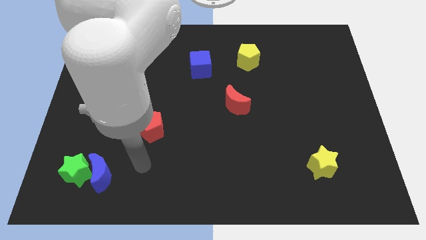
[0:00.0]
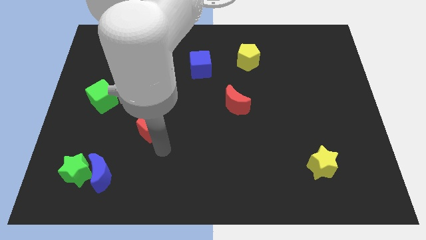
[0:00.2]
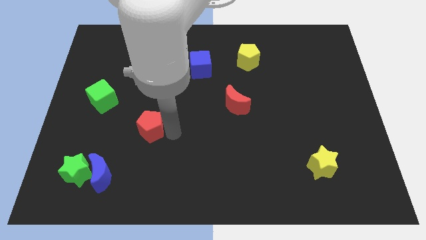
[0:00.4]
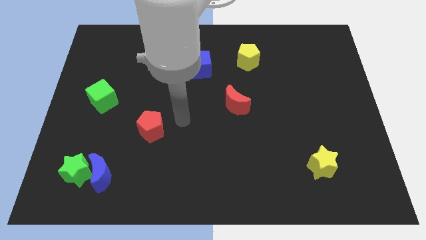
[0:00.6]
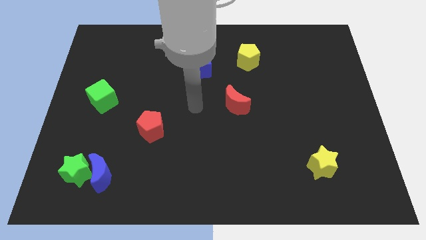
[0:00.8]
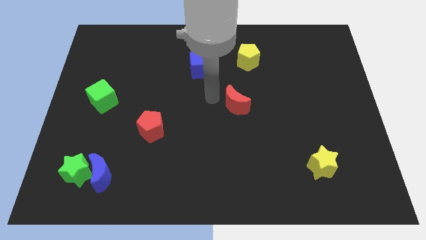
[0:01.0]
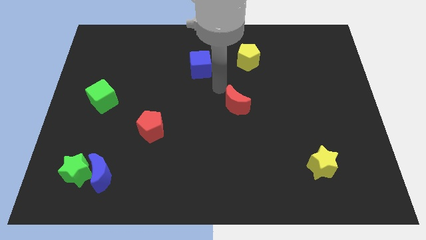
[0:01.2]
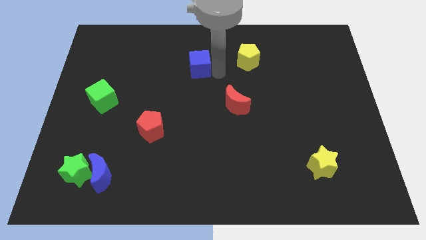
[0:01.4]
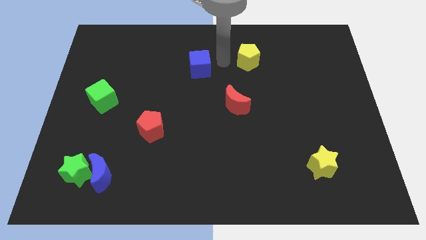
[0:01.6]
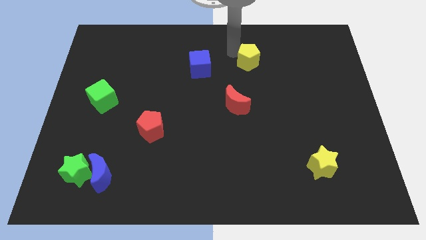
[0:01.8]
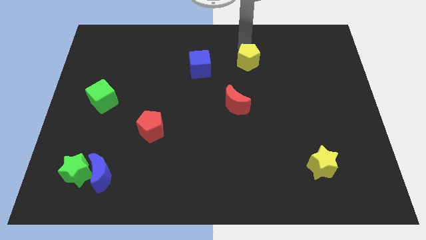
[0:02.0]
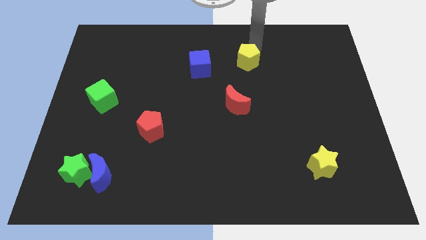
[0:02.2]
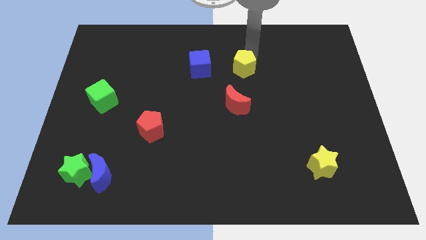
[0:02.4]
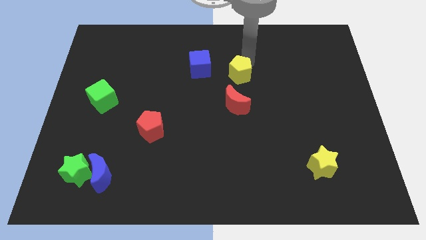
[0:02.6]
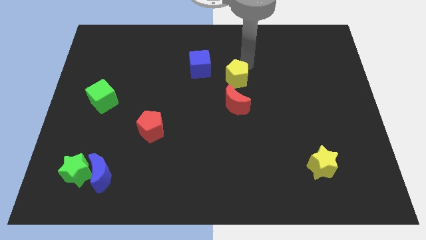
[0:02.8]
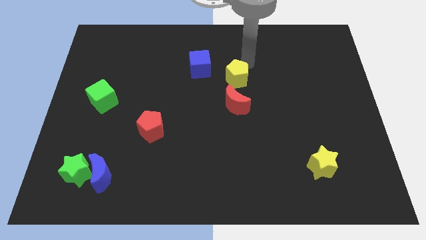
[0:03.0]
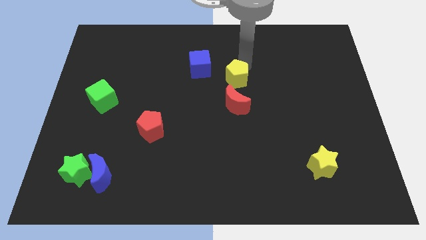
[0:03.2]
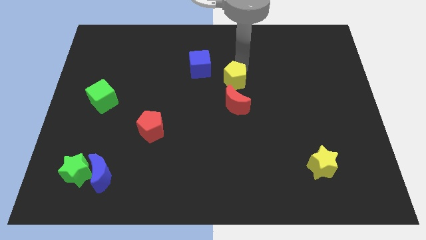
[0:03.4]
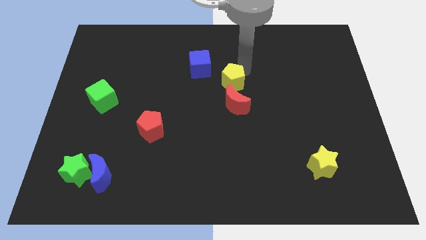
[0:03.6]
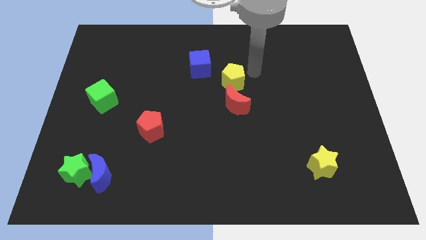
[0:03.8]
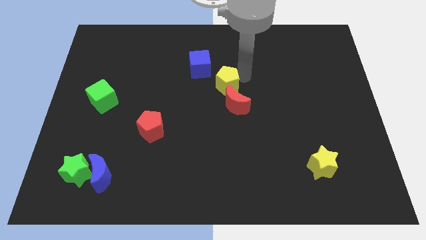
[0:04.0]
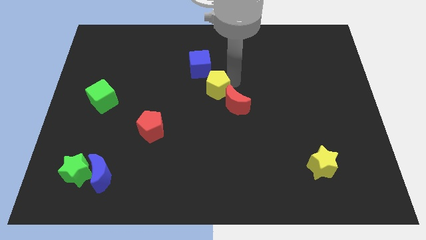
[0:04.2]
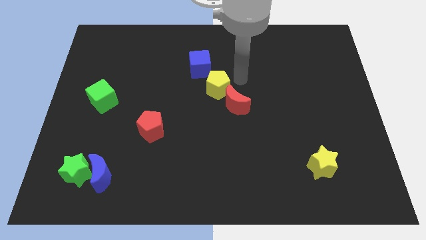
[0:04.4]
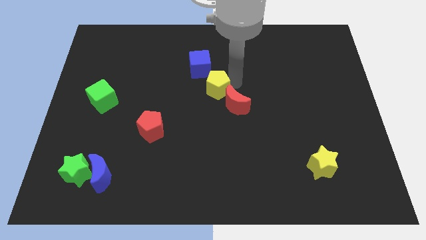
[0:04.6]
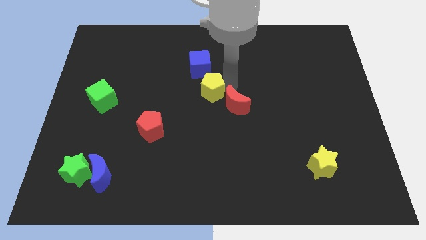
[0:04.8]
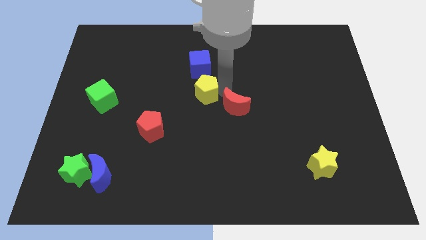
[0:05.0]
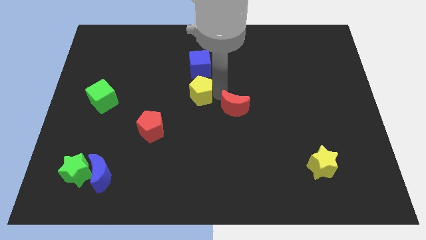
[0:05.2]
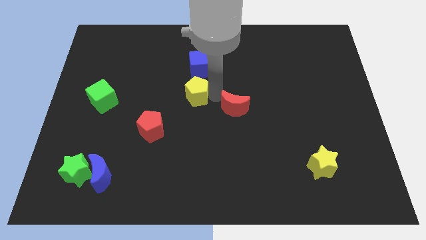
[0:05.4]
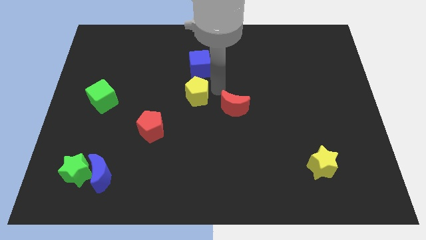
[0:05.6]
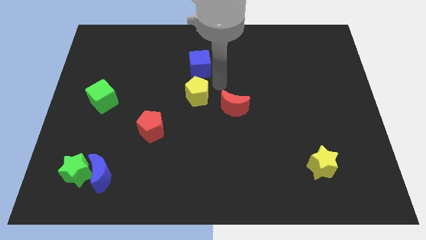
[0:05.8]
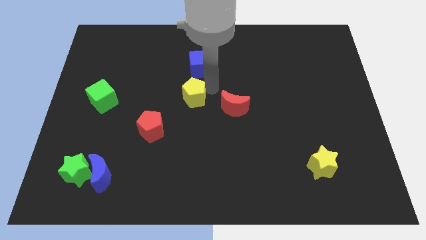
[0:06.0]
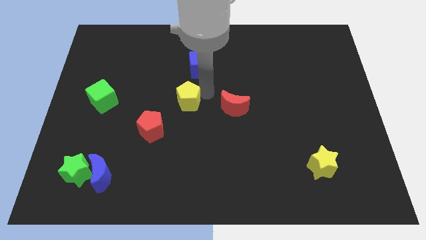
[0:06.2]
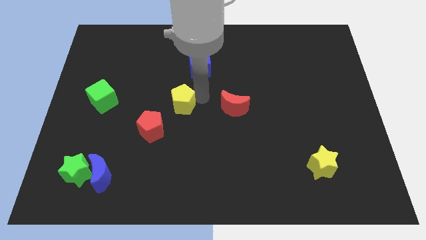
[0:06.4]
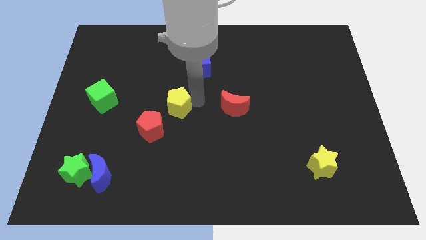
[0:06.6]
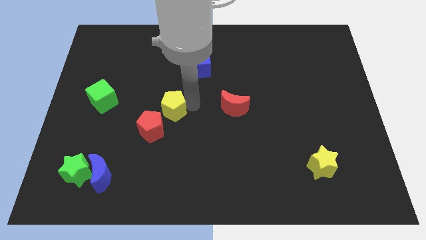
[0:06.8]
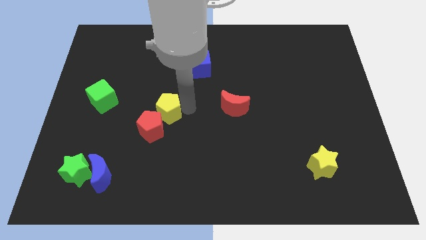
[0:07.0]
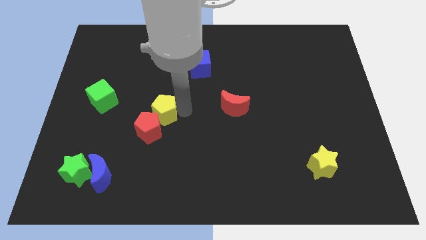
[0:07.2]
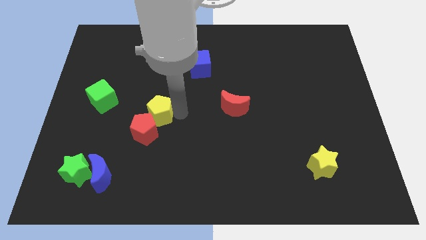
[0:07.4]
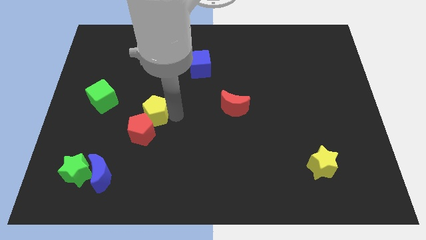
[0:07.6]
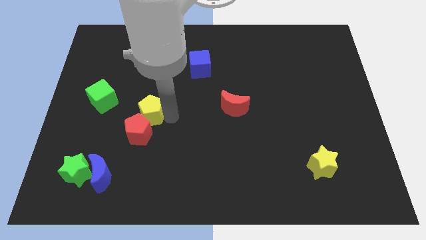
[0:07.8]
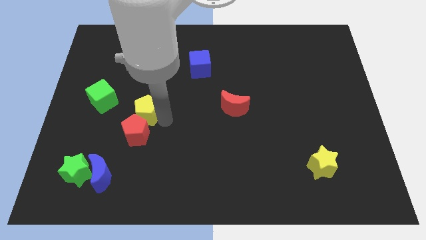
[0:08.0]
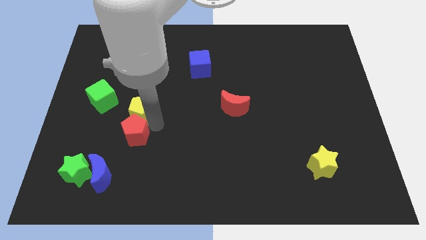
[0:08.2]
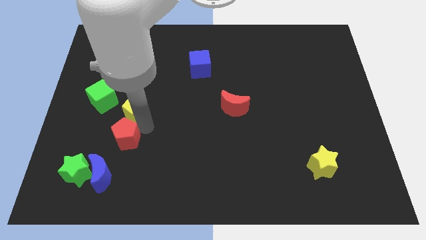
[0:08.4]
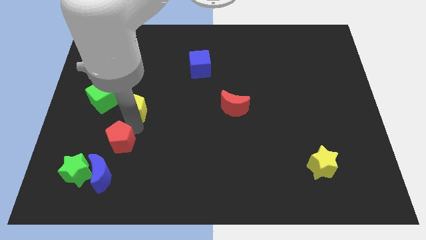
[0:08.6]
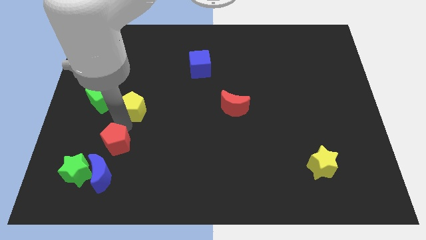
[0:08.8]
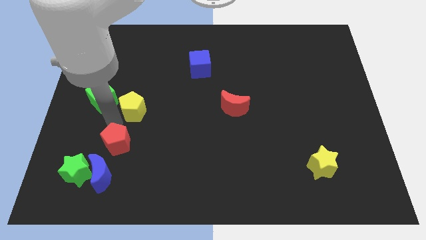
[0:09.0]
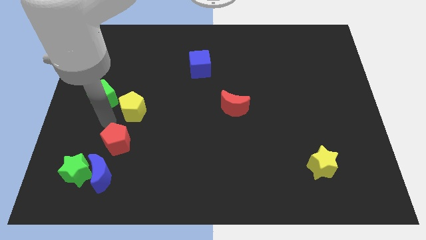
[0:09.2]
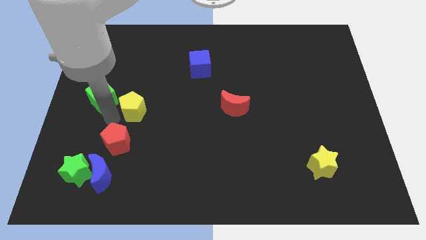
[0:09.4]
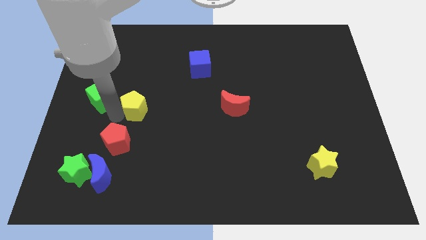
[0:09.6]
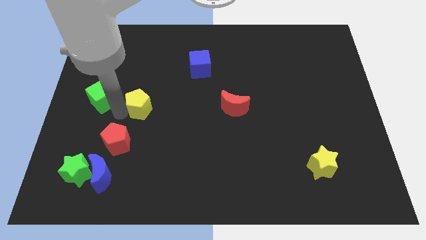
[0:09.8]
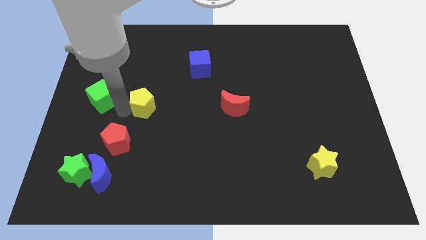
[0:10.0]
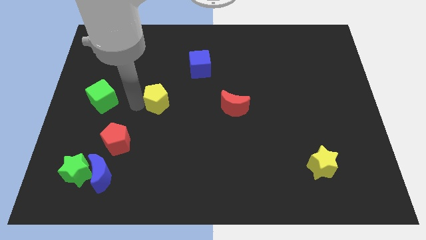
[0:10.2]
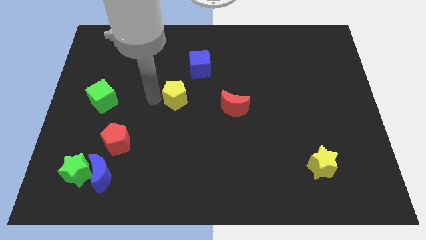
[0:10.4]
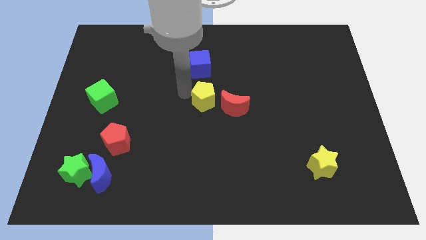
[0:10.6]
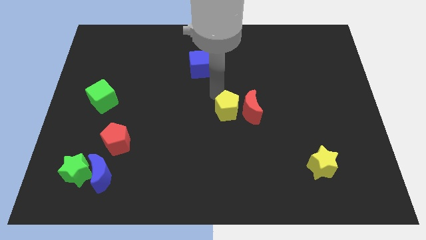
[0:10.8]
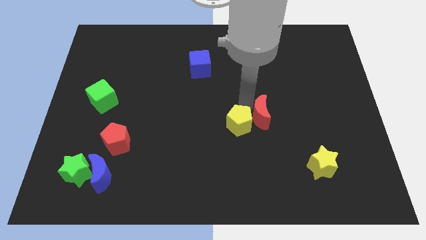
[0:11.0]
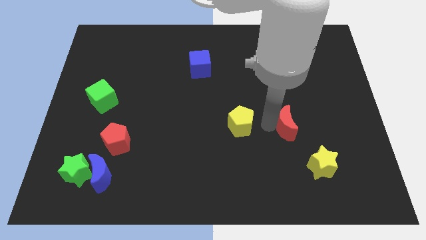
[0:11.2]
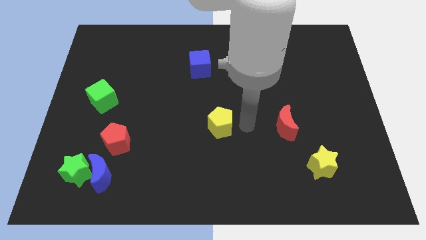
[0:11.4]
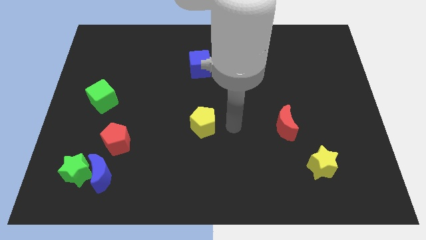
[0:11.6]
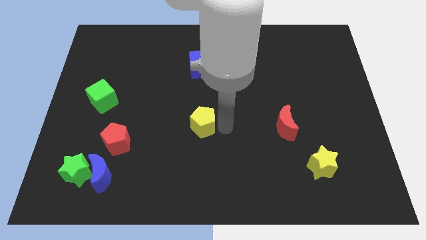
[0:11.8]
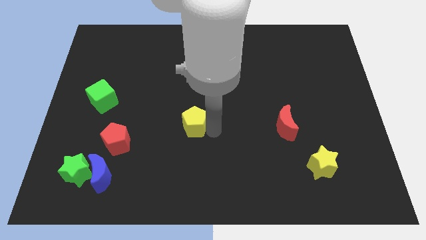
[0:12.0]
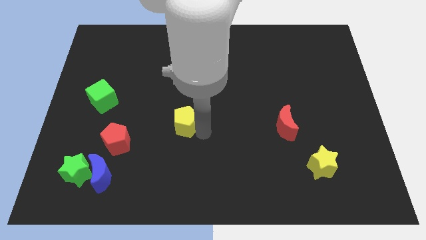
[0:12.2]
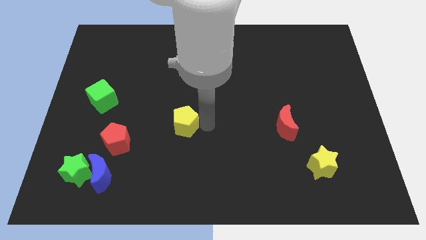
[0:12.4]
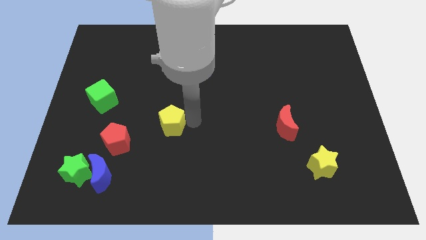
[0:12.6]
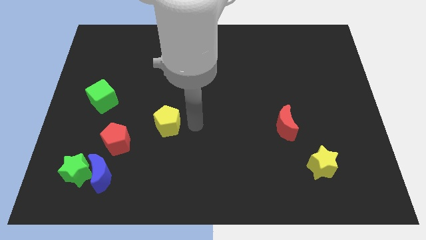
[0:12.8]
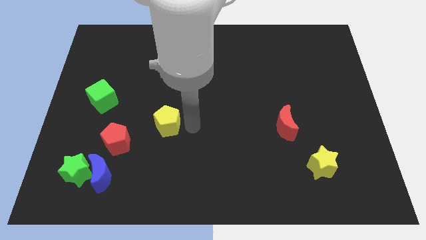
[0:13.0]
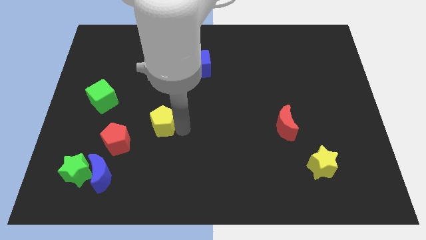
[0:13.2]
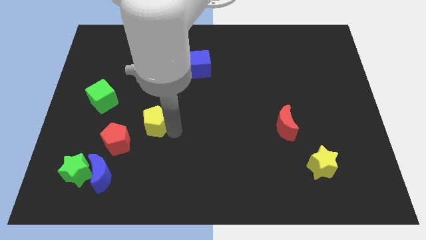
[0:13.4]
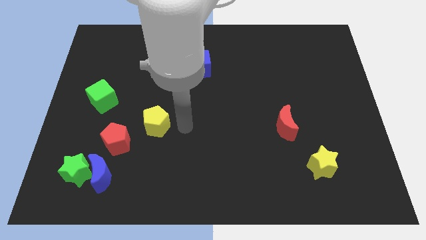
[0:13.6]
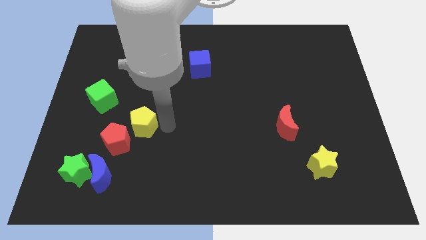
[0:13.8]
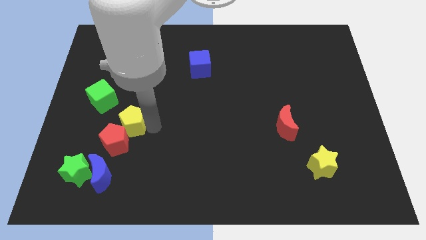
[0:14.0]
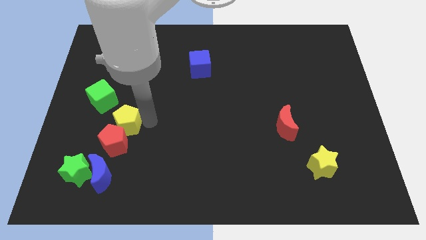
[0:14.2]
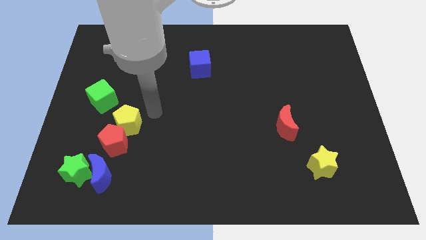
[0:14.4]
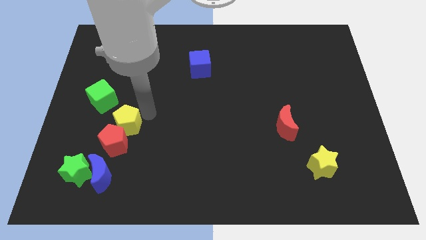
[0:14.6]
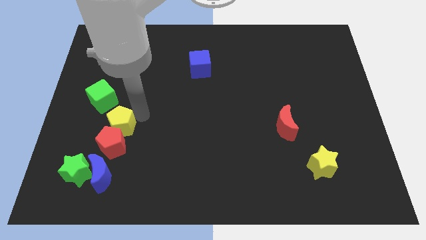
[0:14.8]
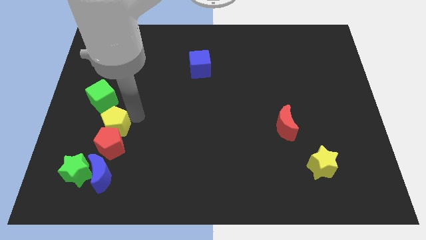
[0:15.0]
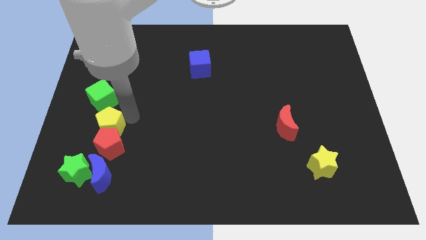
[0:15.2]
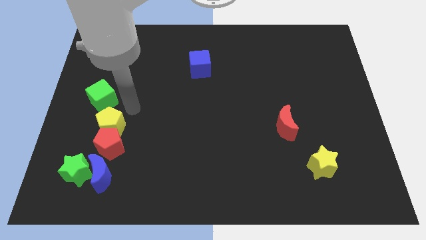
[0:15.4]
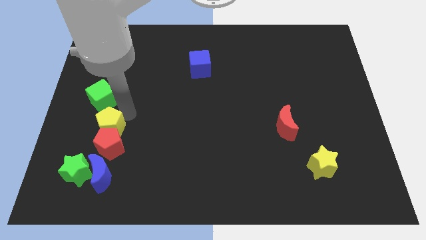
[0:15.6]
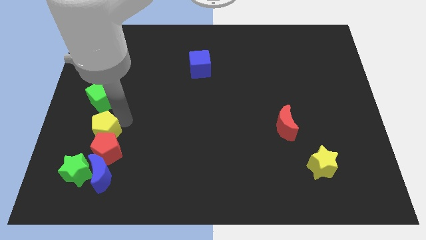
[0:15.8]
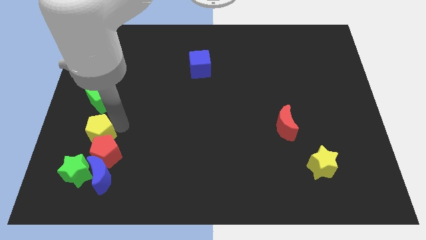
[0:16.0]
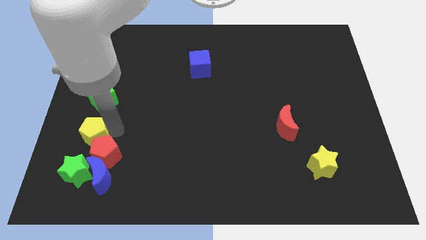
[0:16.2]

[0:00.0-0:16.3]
move the yellow pentagon diagonally up and to the left of the blue moon
